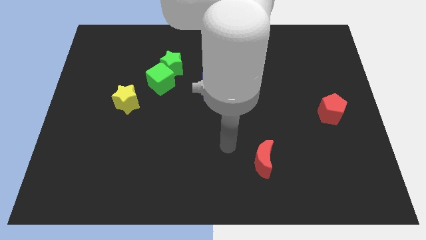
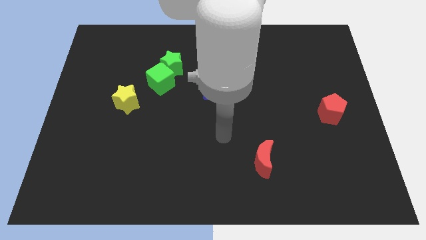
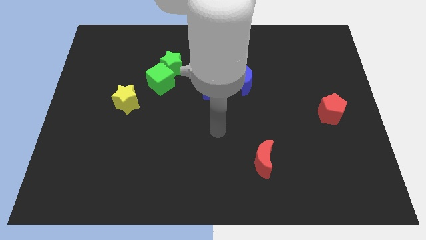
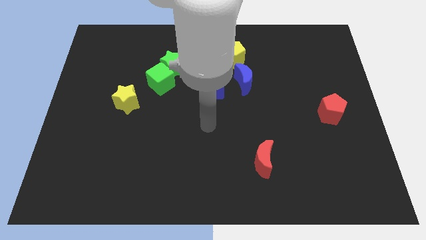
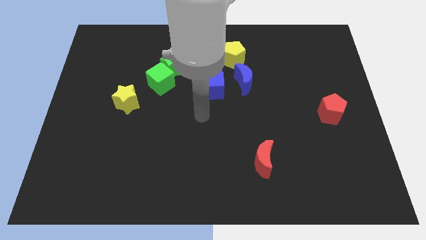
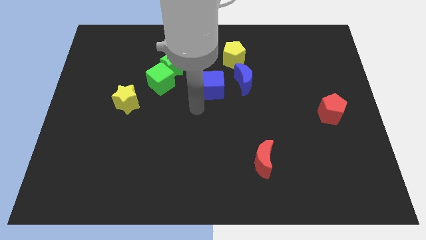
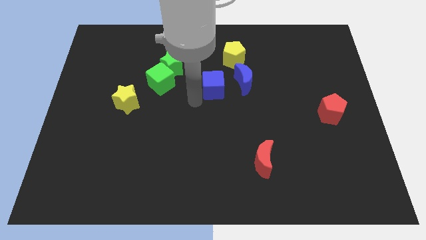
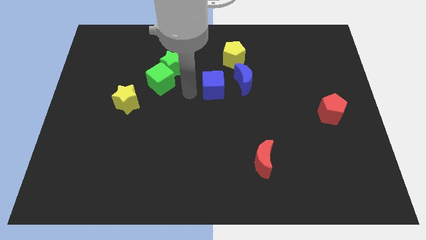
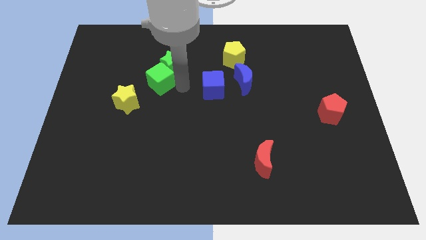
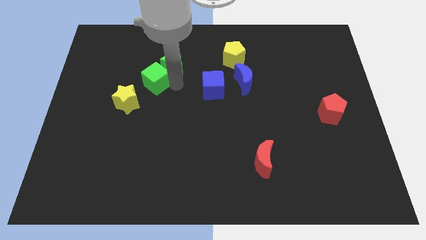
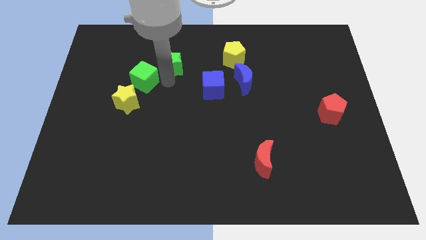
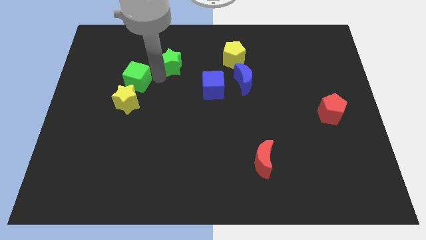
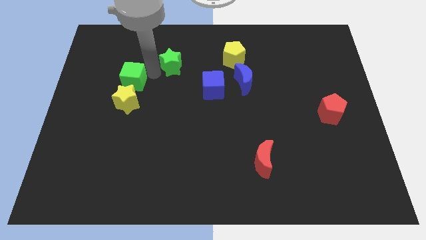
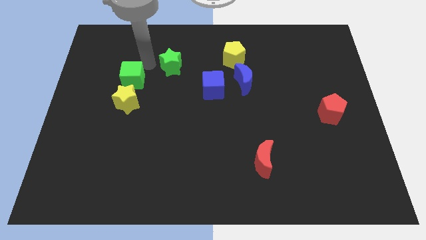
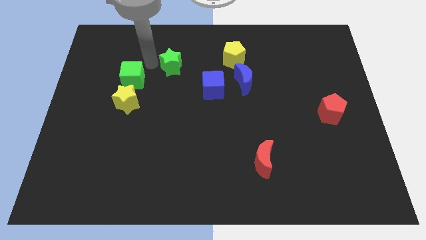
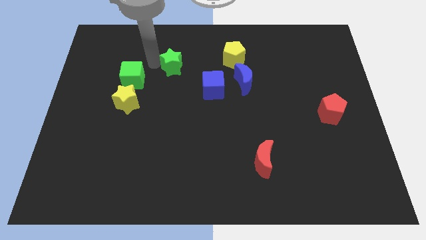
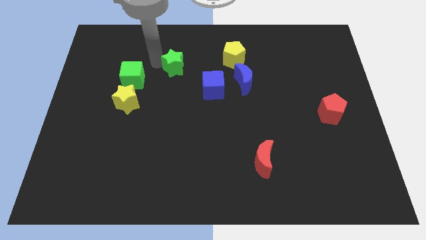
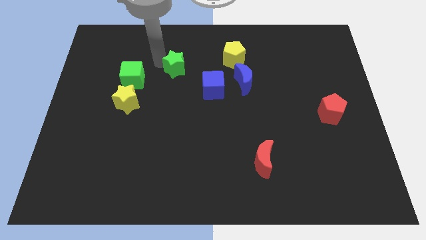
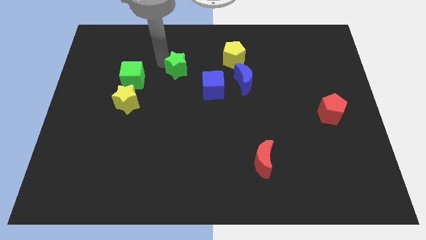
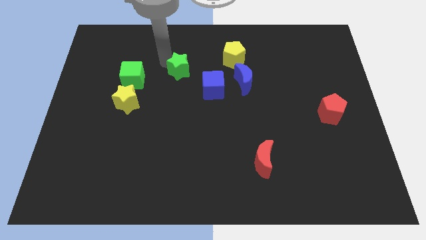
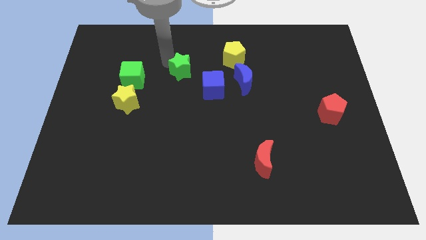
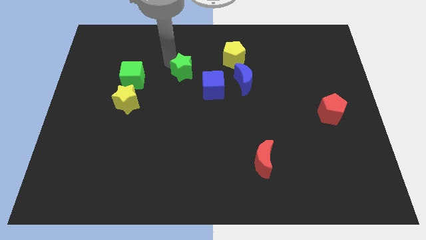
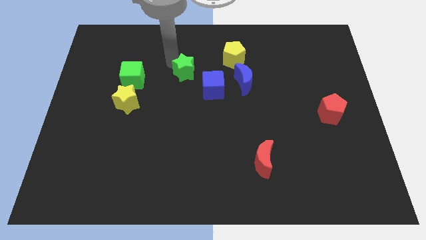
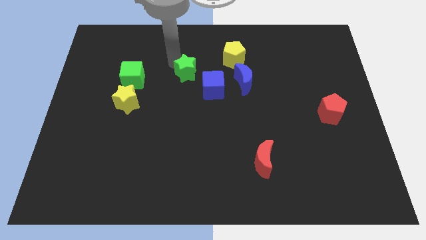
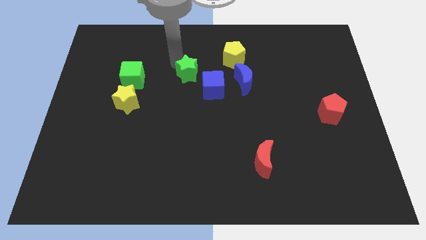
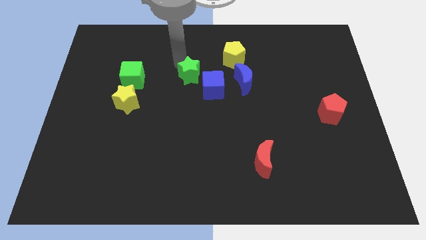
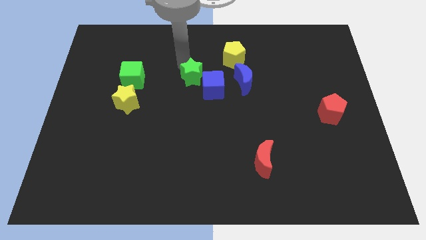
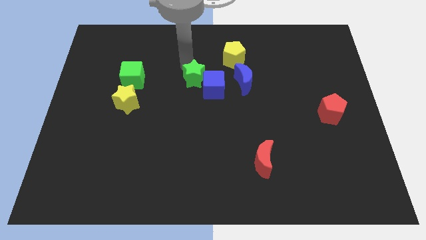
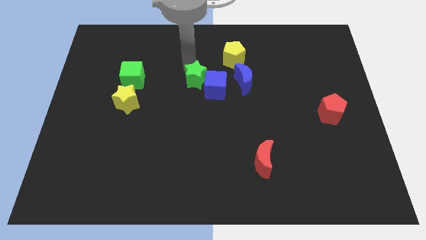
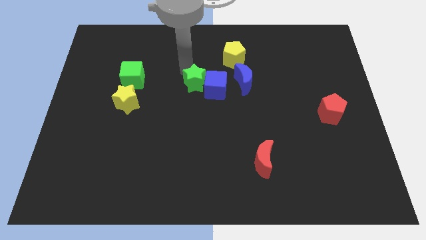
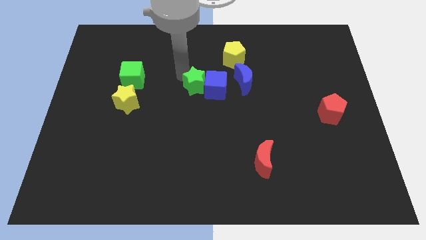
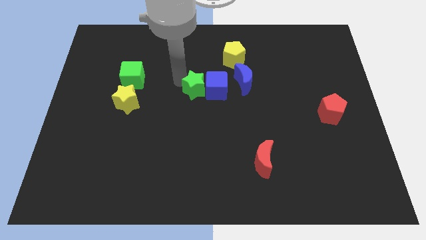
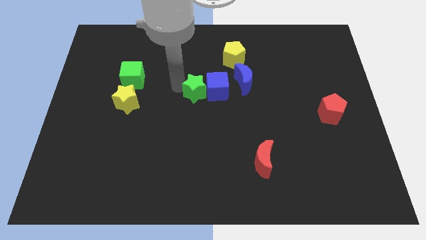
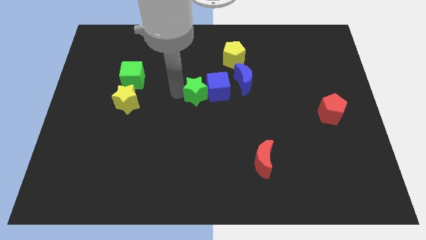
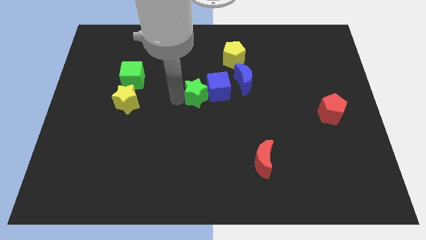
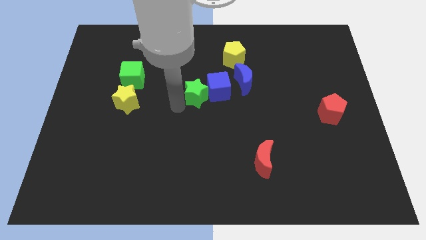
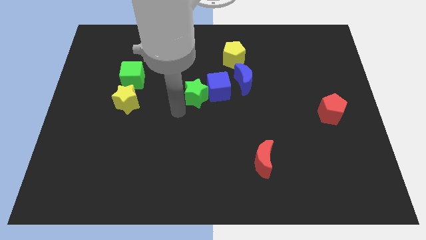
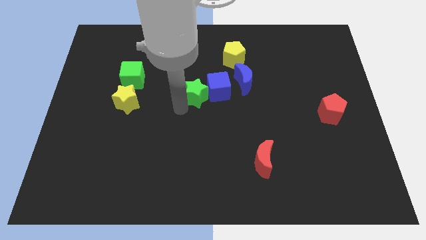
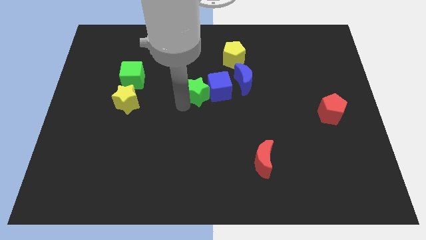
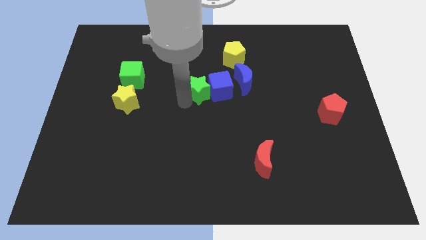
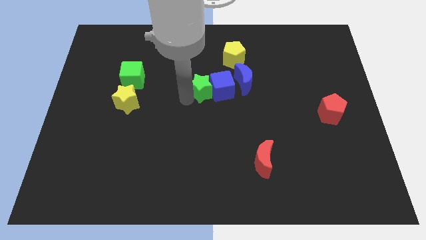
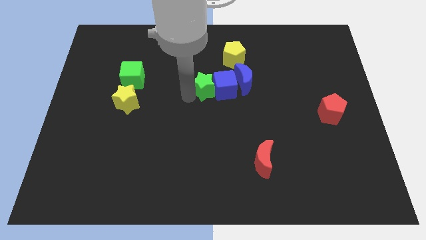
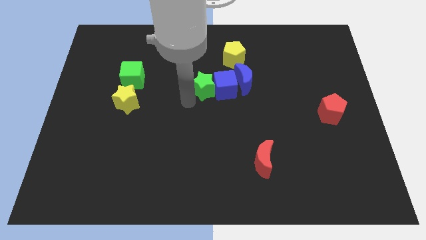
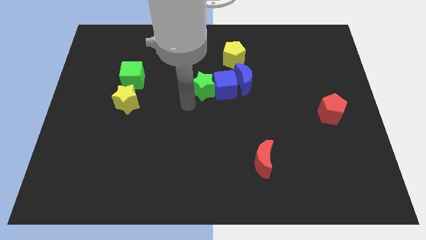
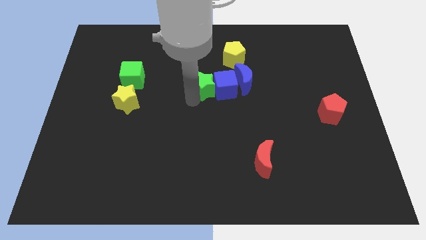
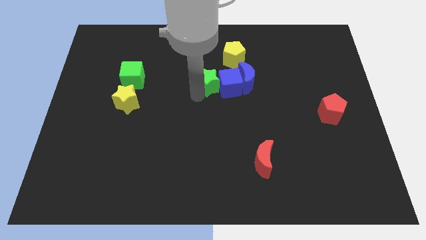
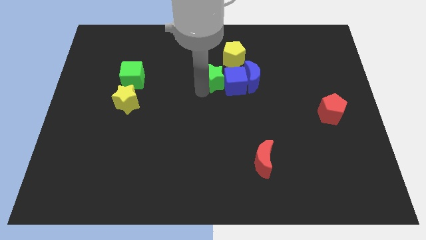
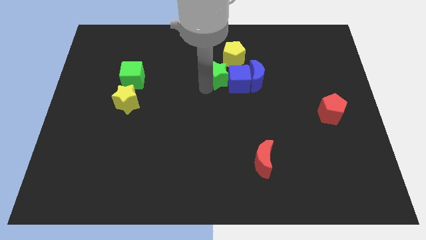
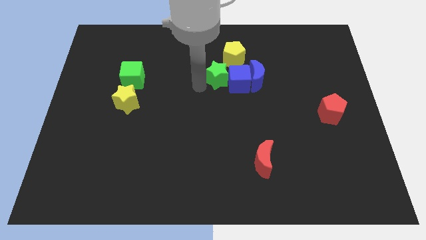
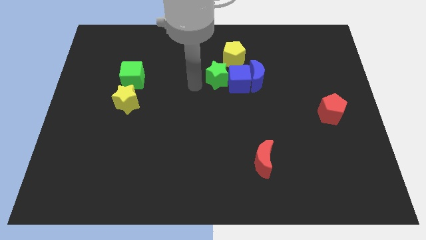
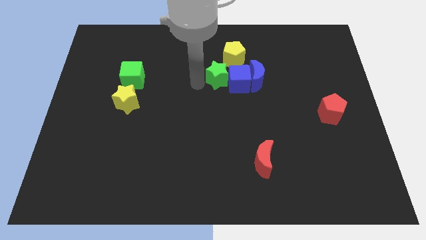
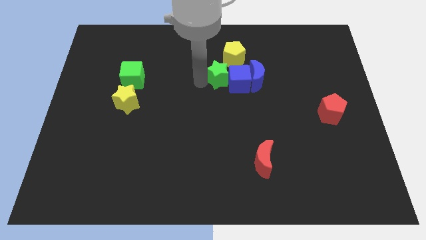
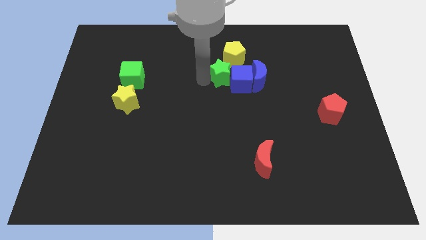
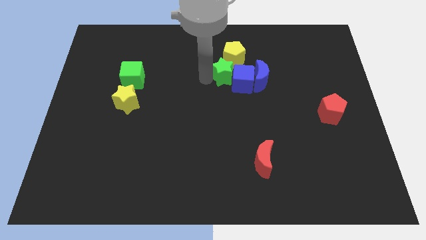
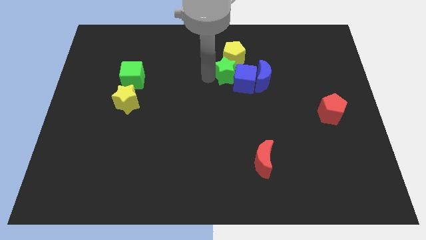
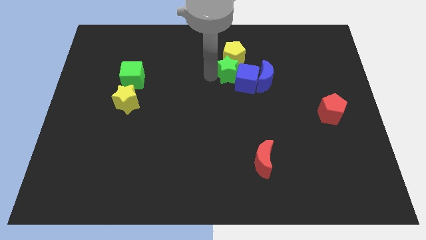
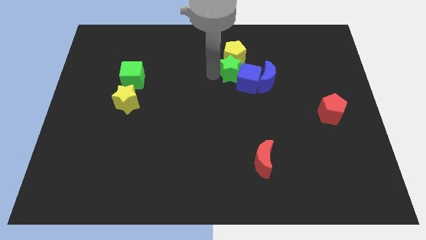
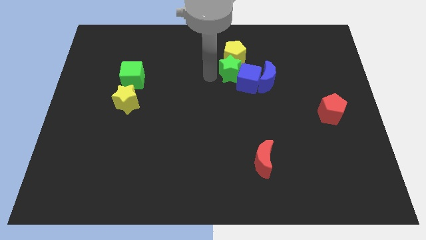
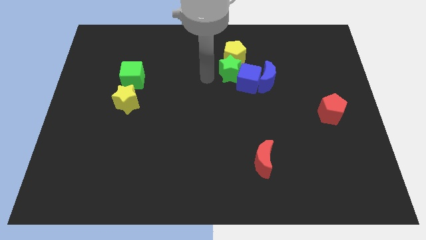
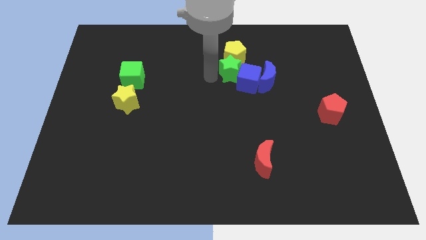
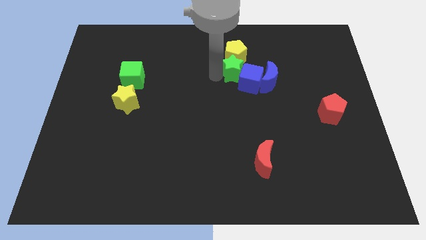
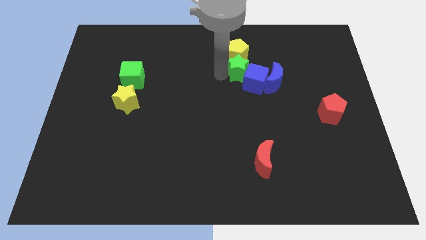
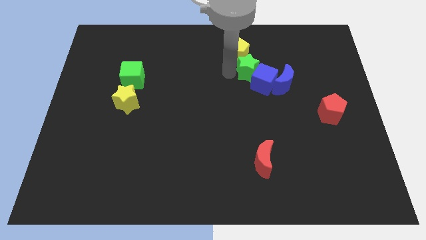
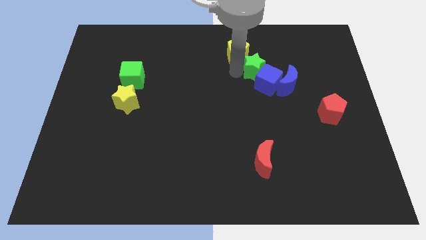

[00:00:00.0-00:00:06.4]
move the green star right

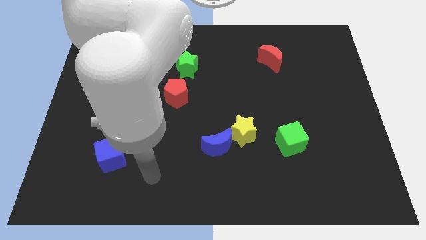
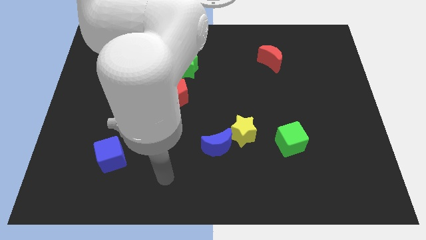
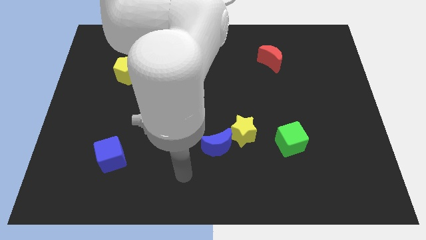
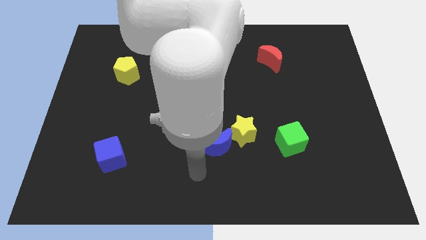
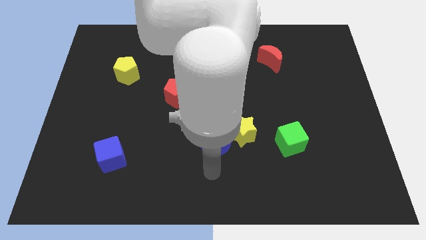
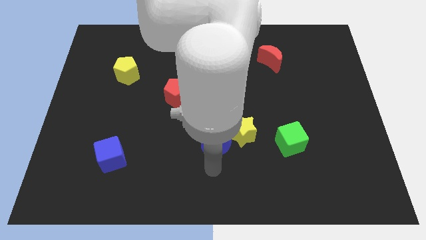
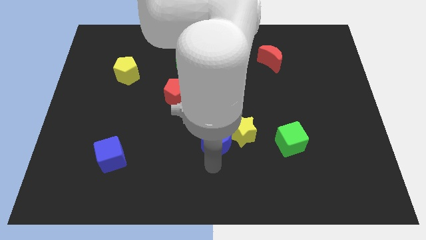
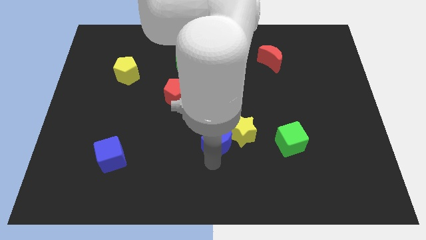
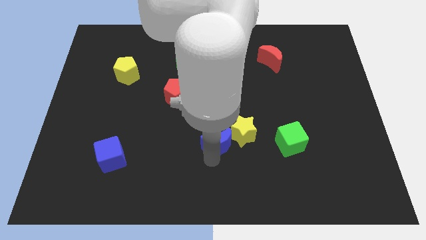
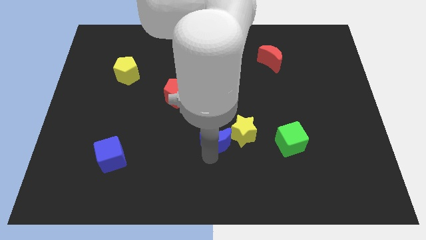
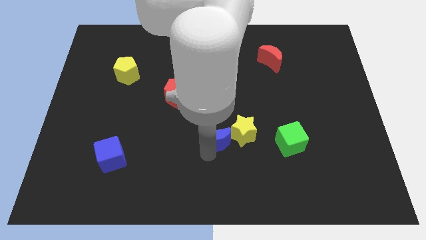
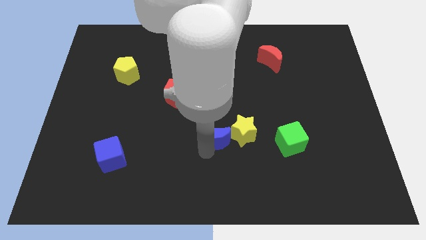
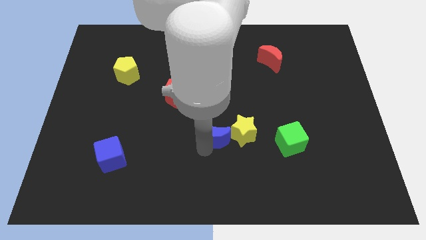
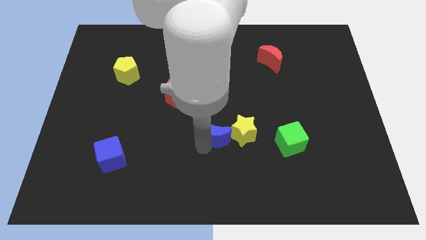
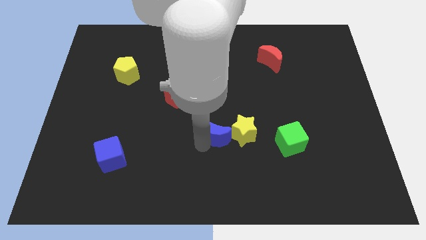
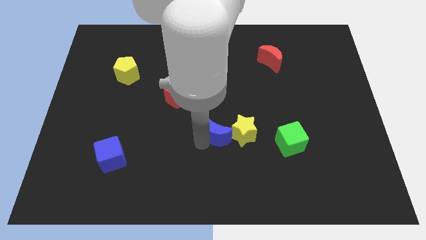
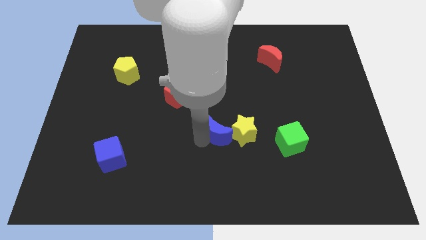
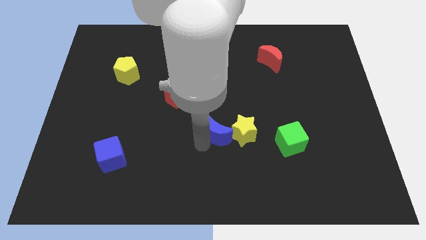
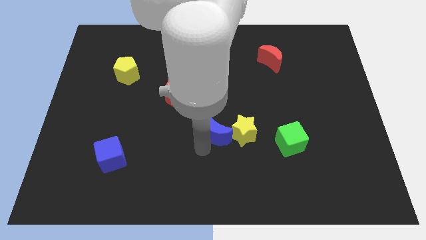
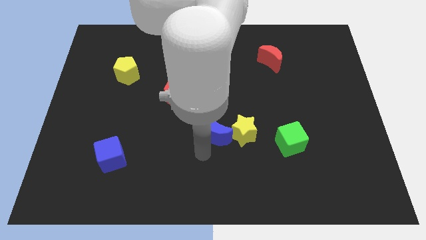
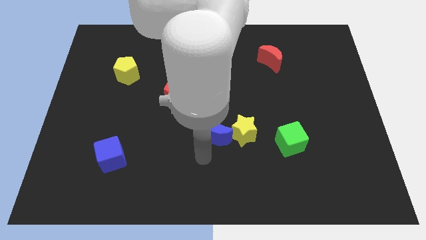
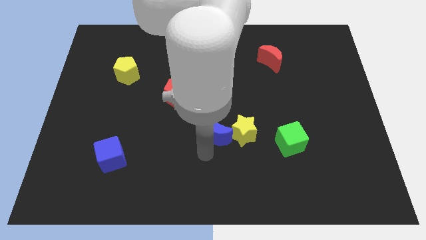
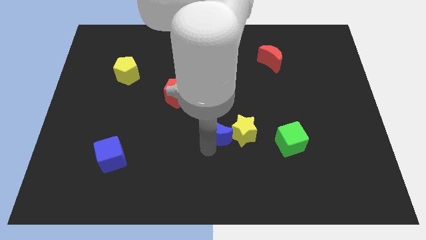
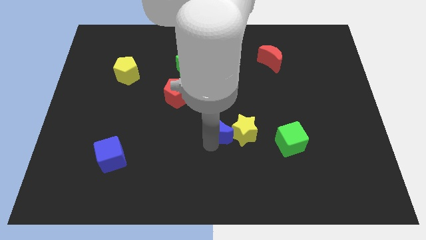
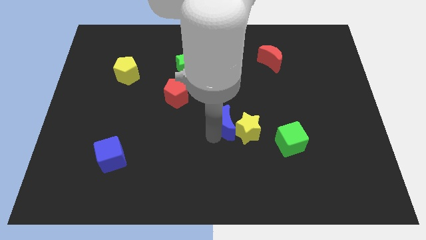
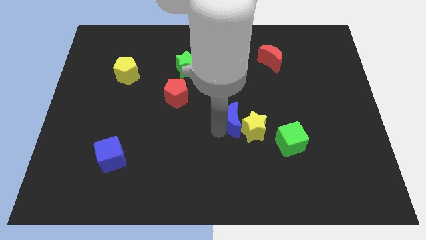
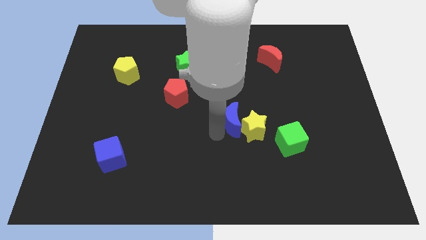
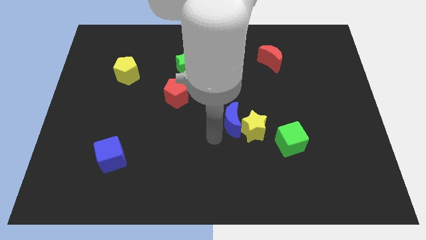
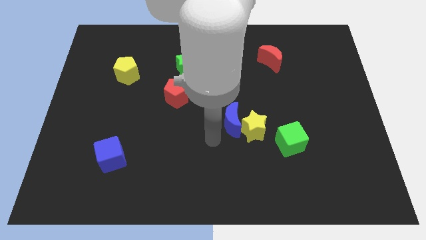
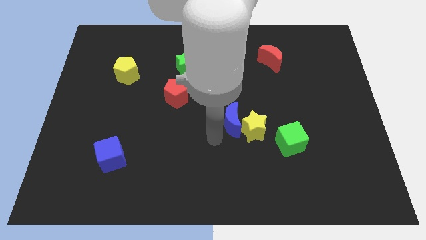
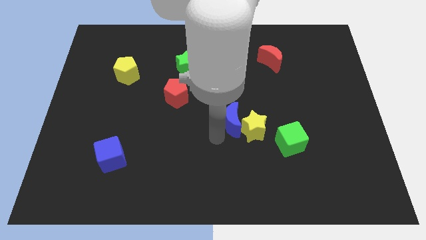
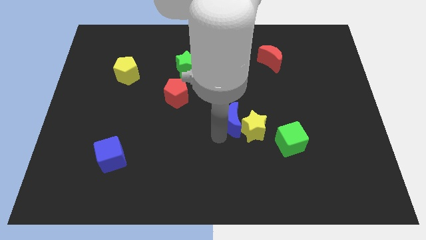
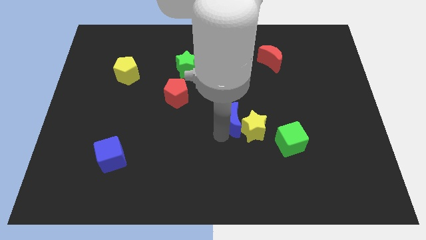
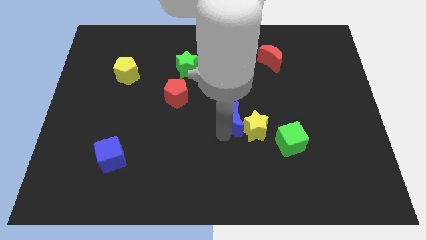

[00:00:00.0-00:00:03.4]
push the blue moon a little diagonally upwards and to the right
